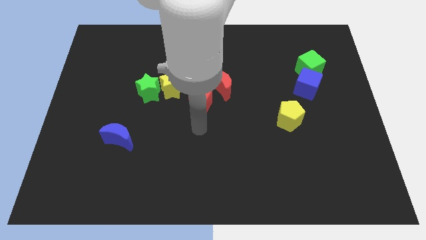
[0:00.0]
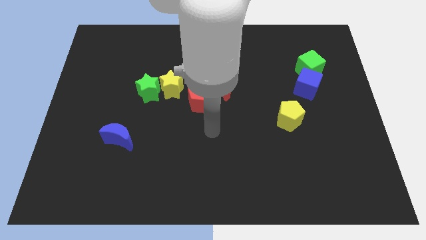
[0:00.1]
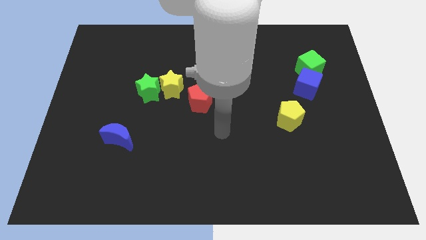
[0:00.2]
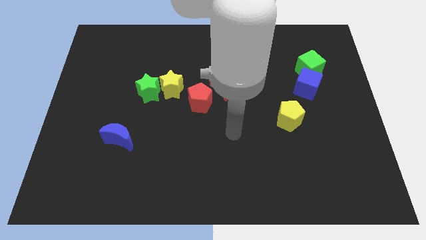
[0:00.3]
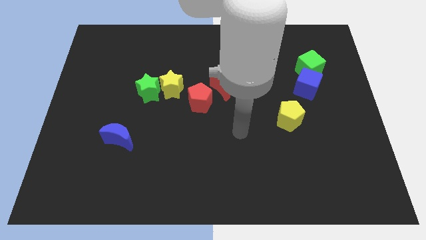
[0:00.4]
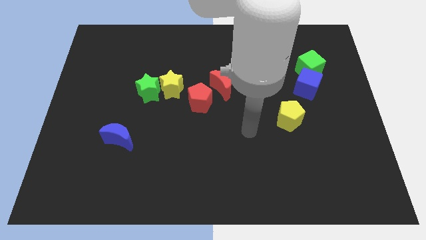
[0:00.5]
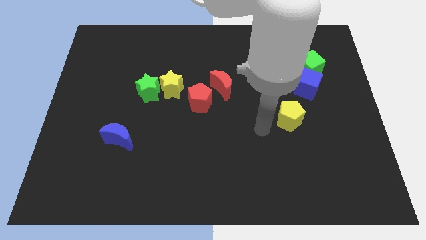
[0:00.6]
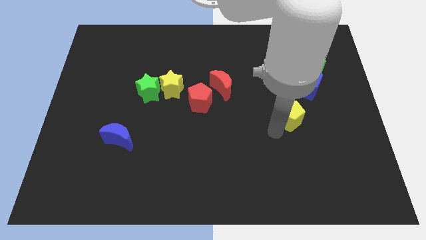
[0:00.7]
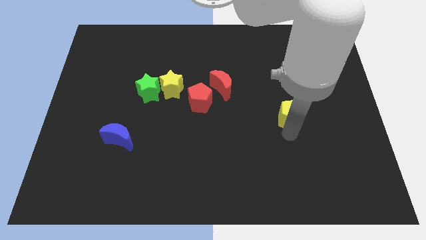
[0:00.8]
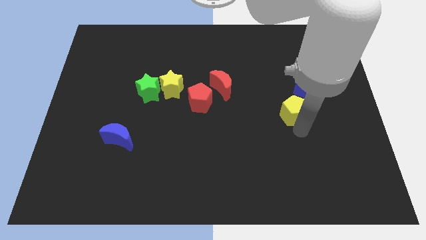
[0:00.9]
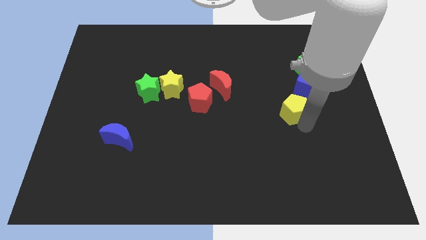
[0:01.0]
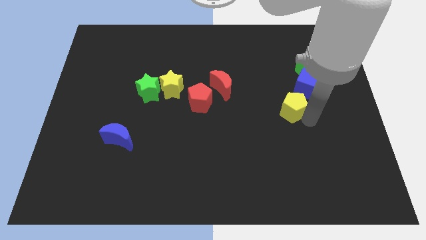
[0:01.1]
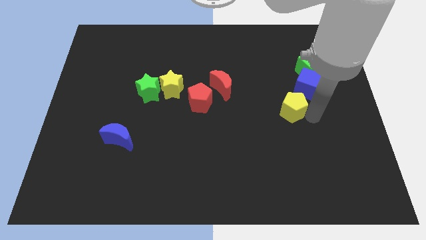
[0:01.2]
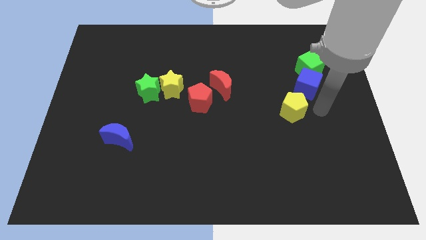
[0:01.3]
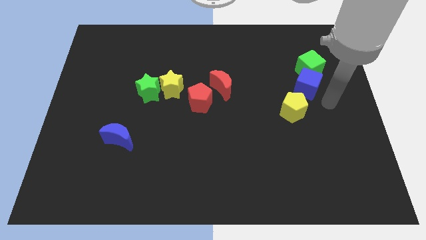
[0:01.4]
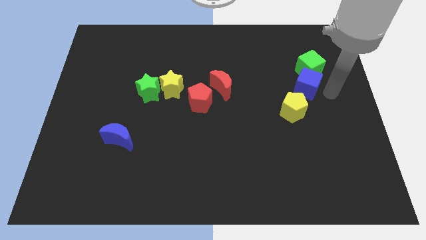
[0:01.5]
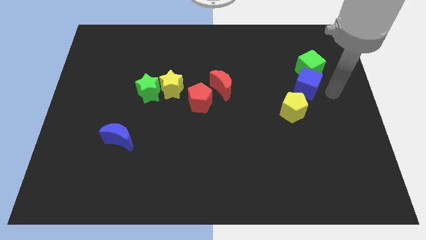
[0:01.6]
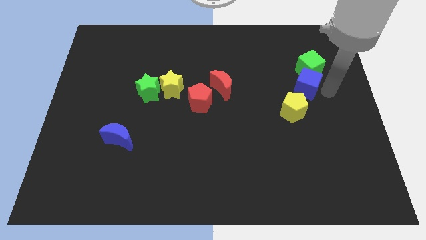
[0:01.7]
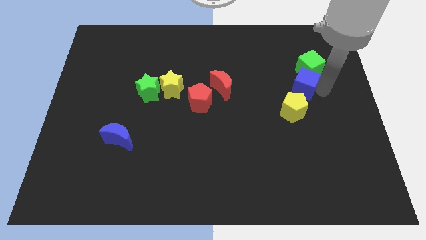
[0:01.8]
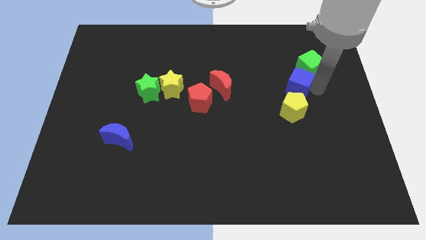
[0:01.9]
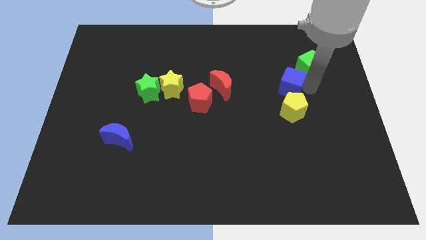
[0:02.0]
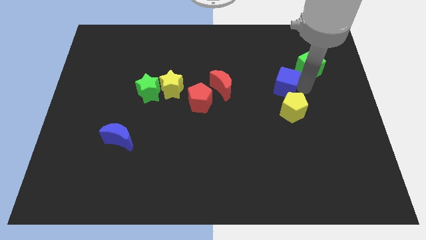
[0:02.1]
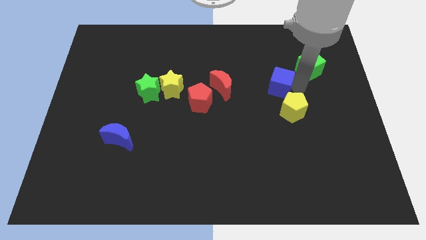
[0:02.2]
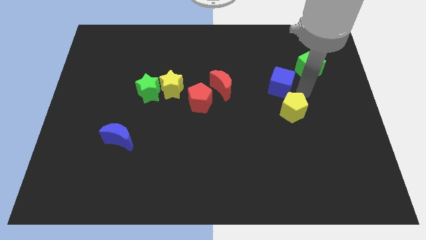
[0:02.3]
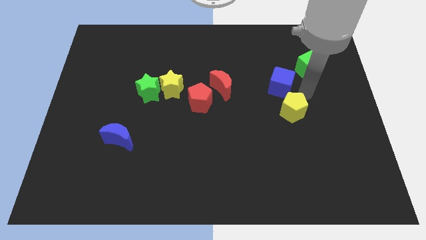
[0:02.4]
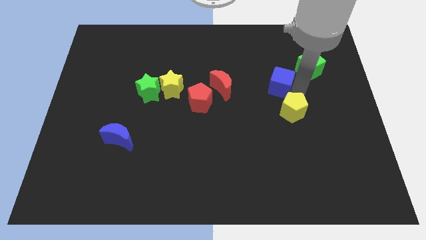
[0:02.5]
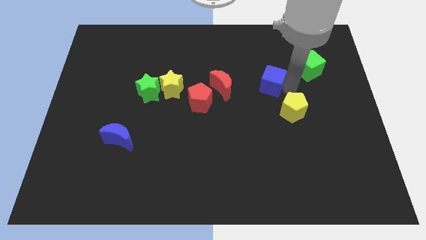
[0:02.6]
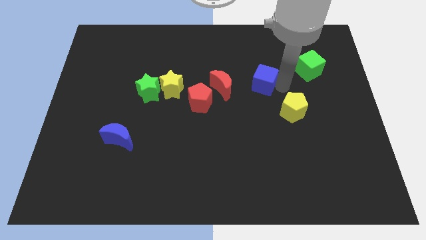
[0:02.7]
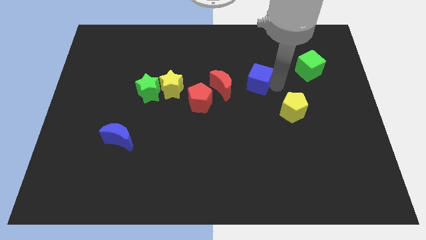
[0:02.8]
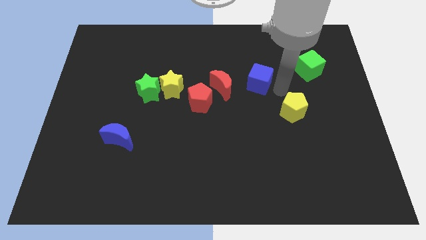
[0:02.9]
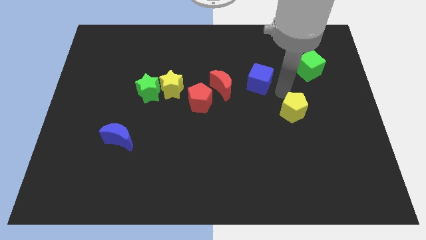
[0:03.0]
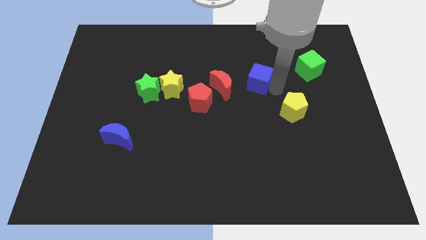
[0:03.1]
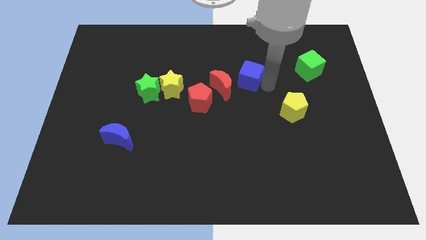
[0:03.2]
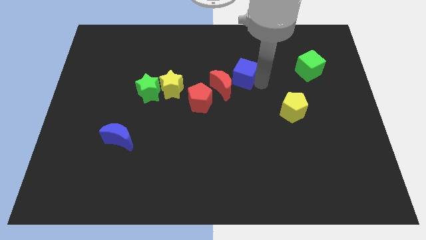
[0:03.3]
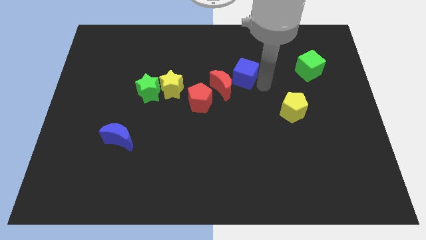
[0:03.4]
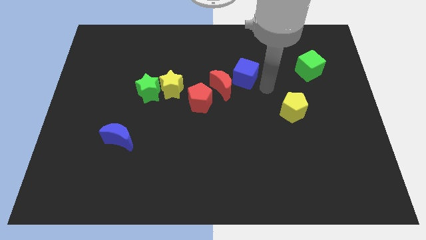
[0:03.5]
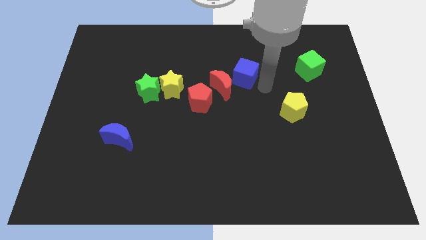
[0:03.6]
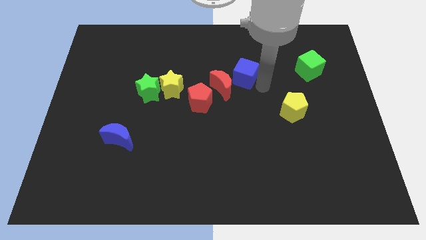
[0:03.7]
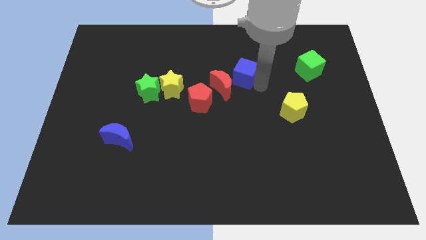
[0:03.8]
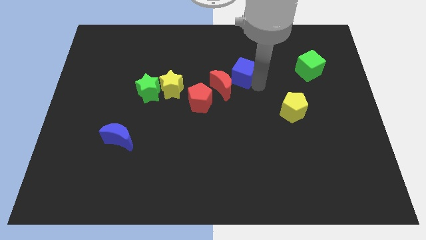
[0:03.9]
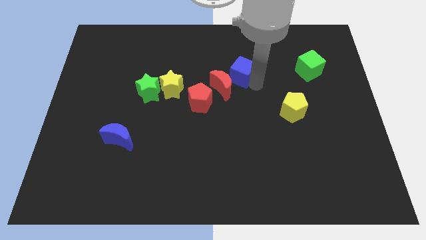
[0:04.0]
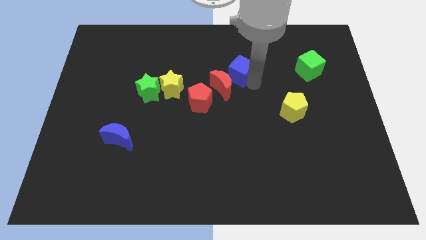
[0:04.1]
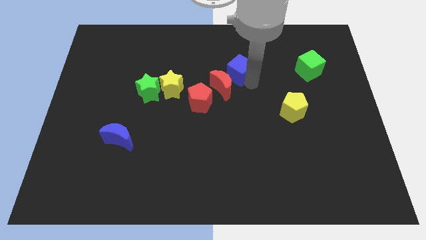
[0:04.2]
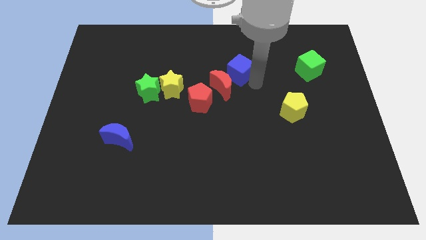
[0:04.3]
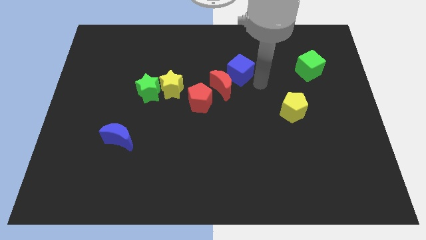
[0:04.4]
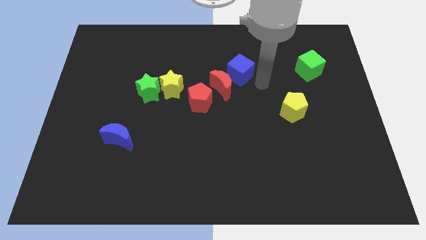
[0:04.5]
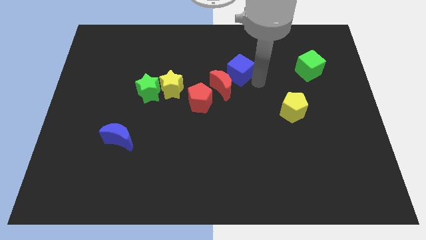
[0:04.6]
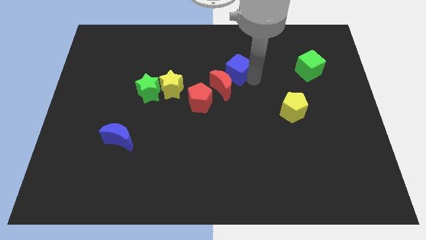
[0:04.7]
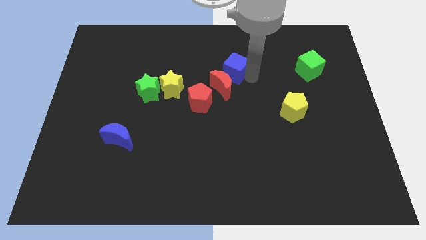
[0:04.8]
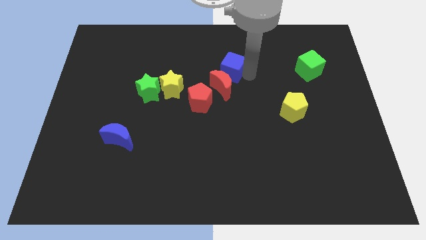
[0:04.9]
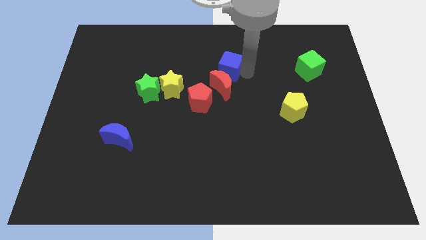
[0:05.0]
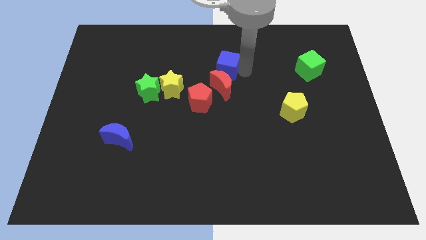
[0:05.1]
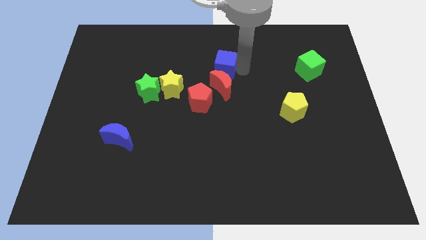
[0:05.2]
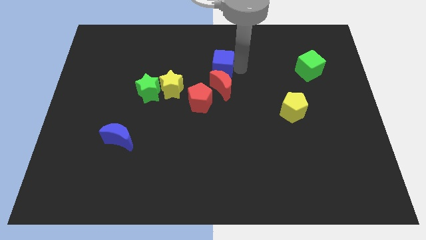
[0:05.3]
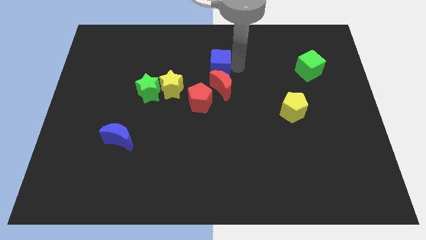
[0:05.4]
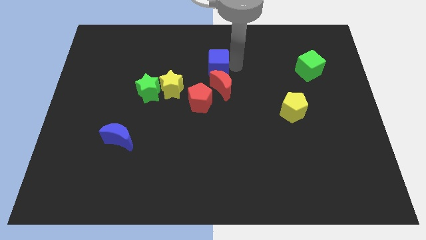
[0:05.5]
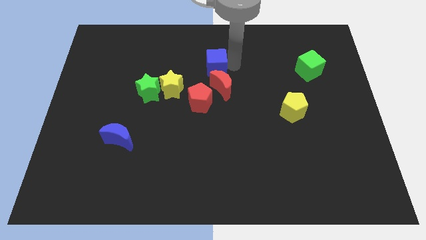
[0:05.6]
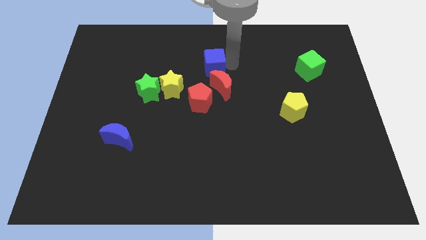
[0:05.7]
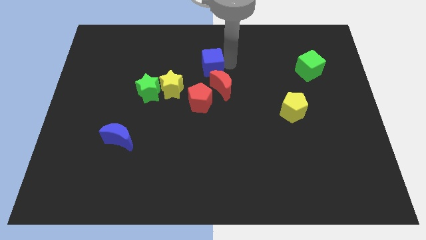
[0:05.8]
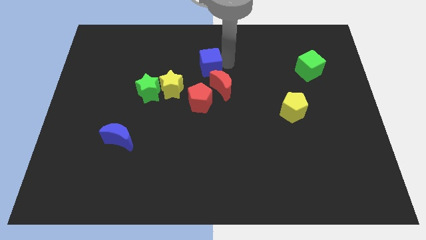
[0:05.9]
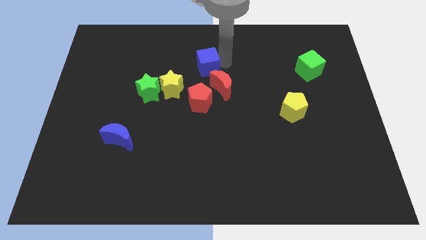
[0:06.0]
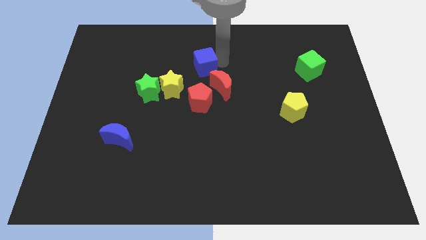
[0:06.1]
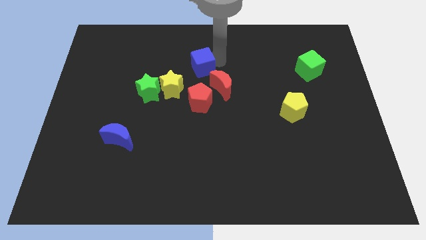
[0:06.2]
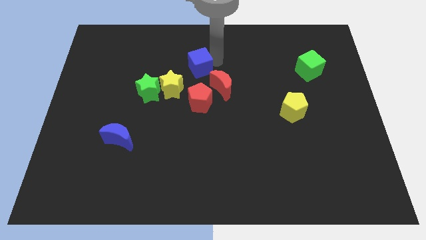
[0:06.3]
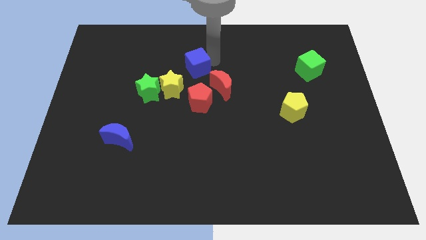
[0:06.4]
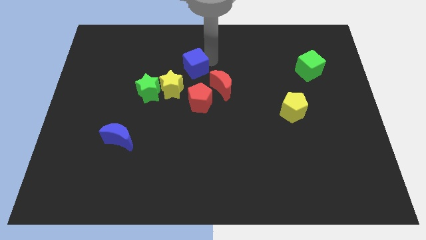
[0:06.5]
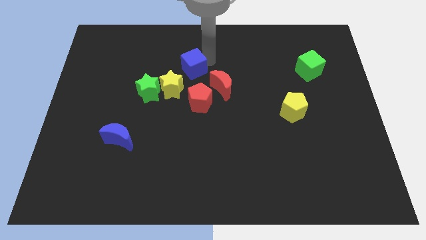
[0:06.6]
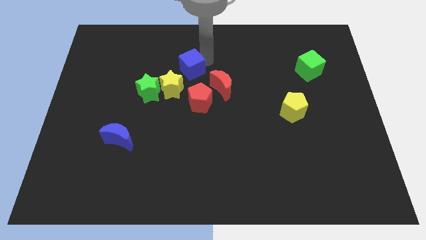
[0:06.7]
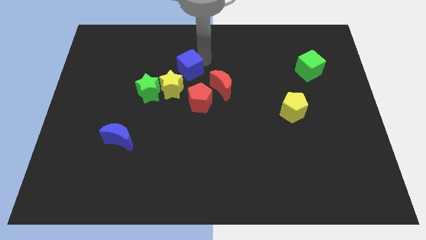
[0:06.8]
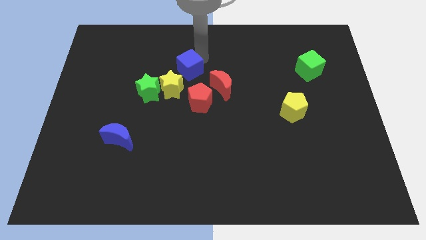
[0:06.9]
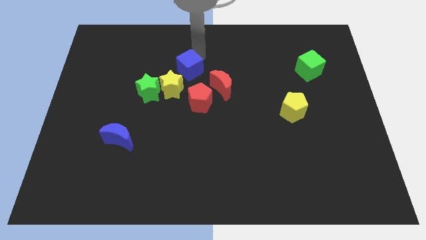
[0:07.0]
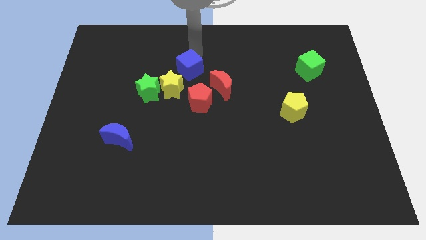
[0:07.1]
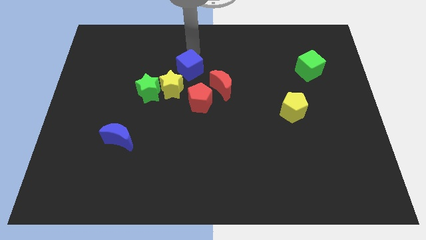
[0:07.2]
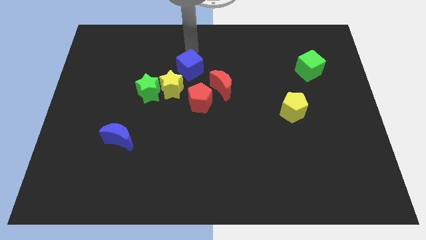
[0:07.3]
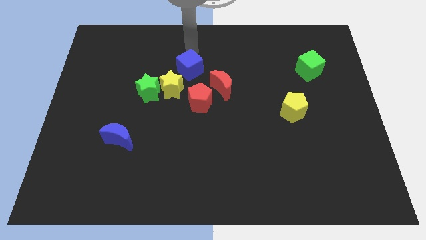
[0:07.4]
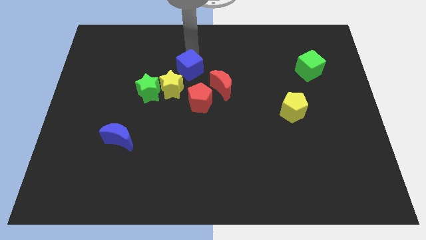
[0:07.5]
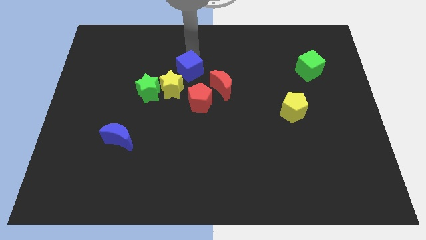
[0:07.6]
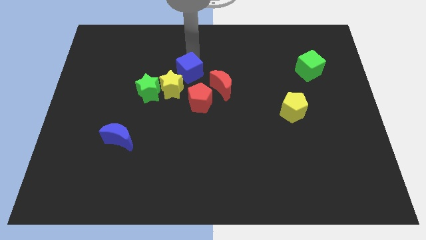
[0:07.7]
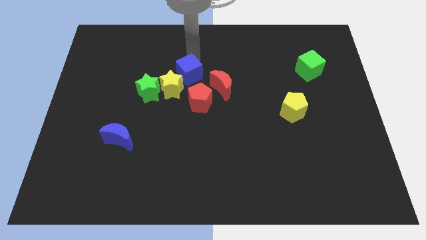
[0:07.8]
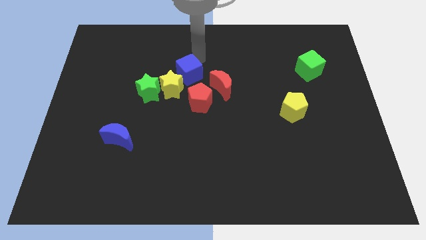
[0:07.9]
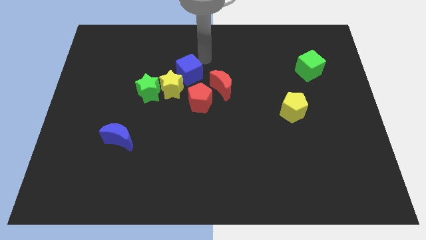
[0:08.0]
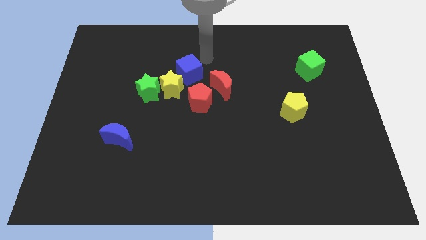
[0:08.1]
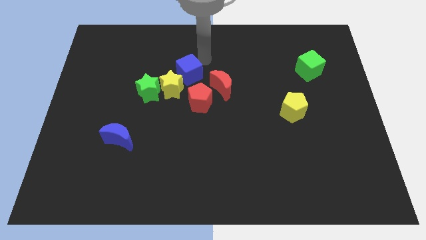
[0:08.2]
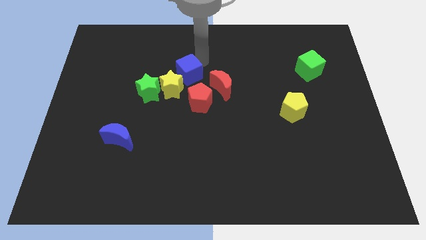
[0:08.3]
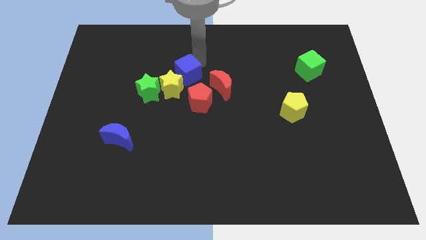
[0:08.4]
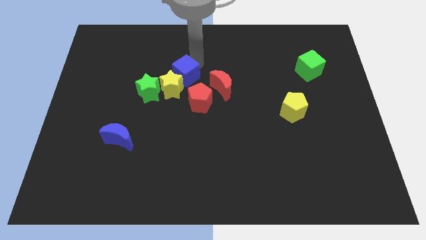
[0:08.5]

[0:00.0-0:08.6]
slide the blue cube close to the yellow star
